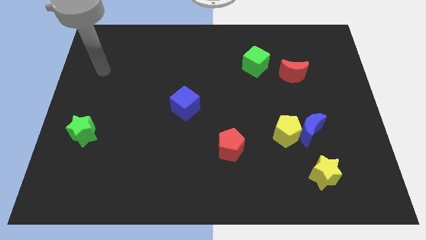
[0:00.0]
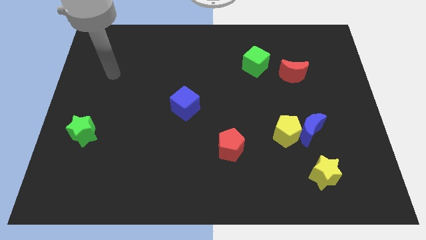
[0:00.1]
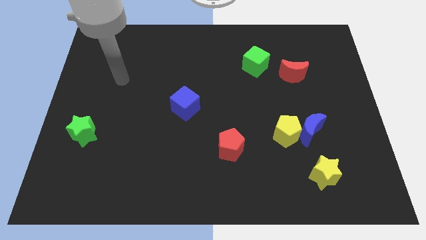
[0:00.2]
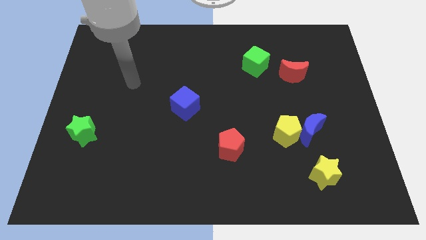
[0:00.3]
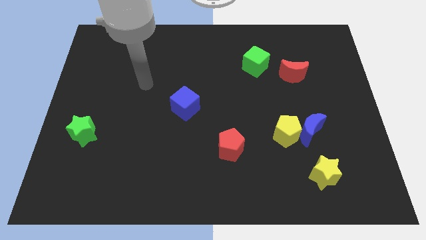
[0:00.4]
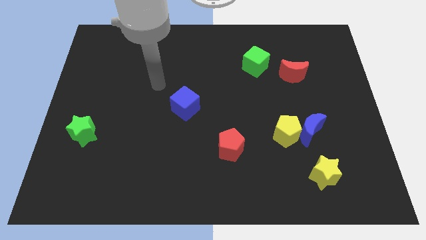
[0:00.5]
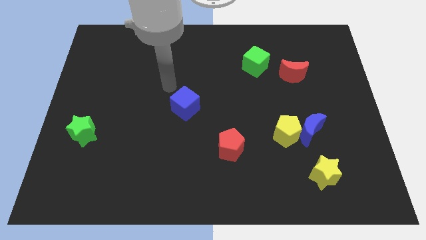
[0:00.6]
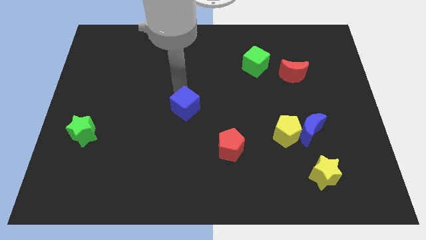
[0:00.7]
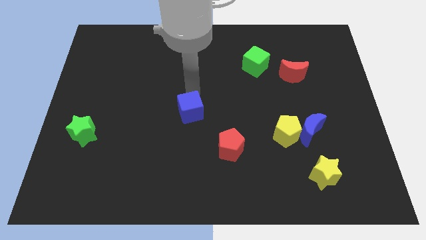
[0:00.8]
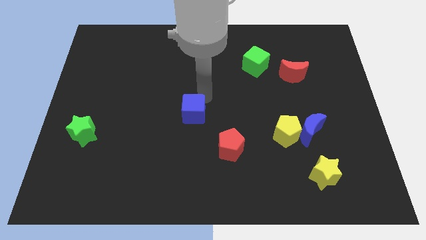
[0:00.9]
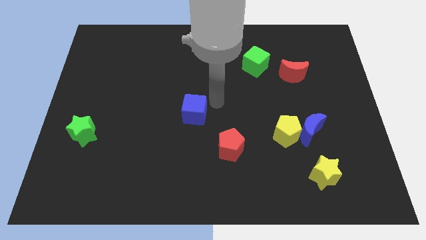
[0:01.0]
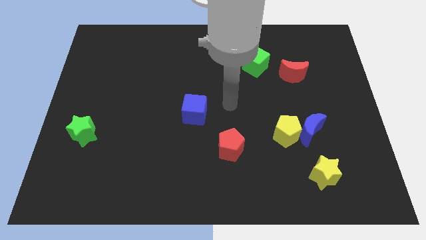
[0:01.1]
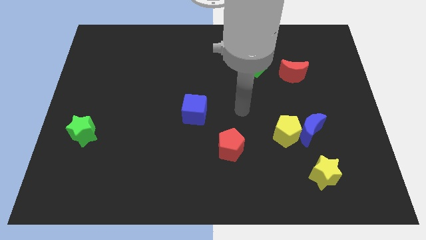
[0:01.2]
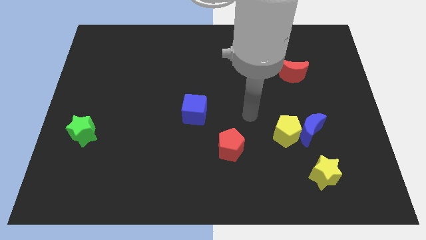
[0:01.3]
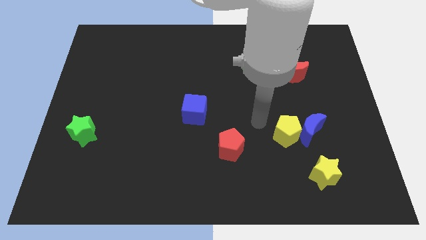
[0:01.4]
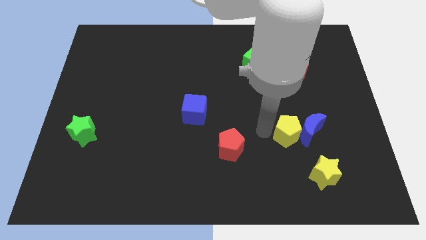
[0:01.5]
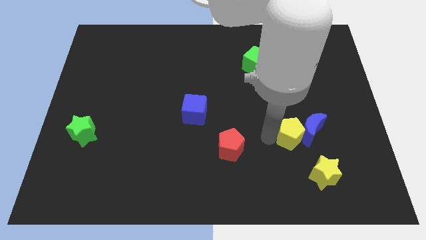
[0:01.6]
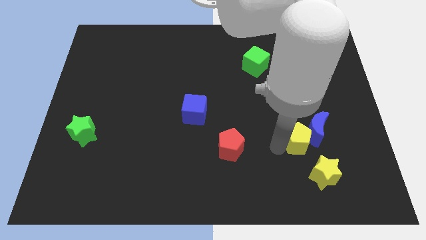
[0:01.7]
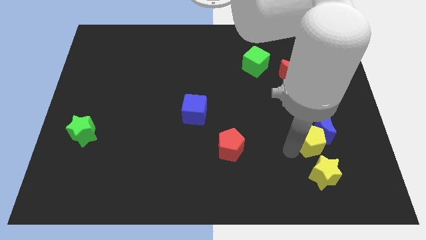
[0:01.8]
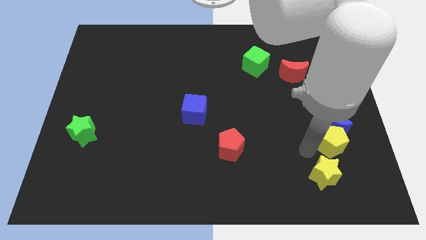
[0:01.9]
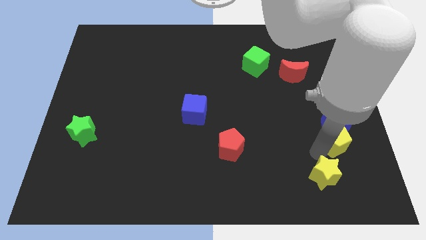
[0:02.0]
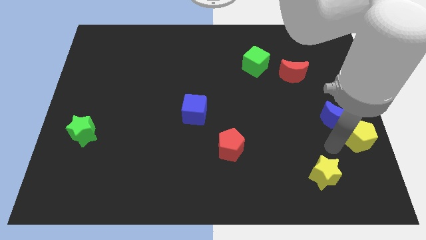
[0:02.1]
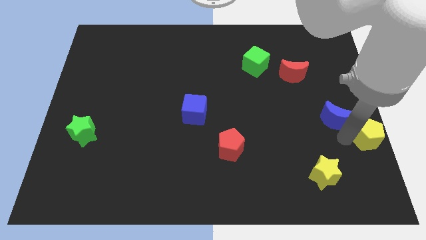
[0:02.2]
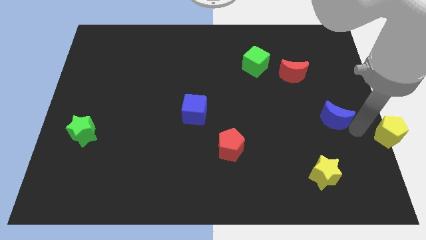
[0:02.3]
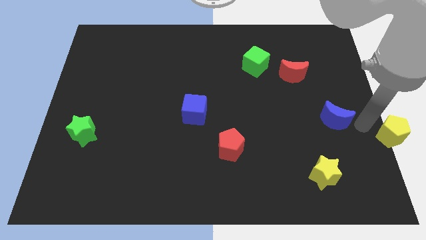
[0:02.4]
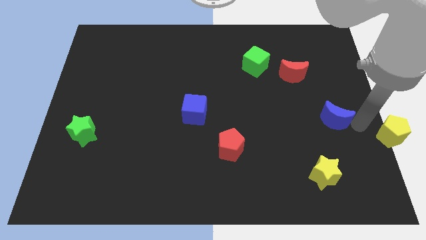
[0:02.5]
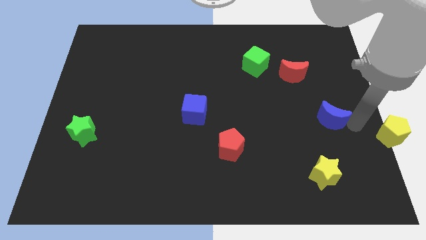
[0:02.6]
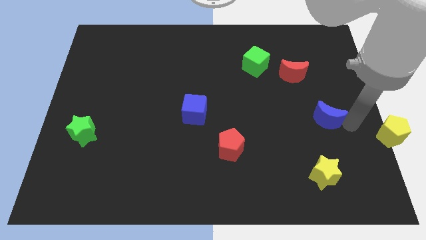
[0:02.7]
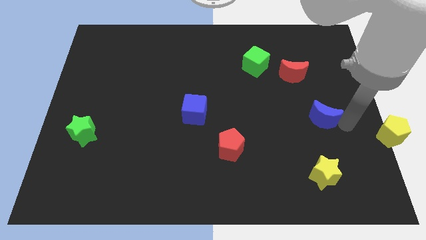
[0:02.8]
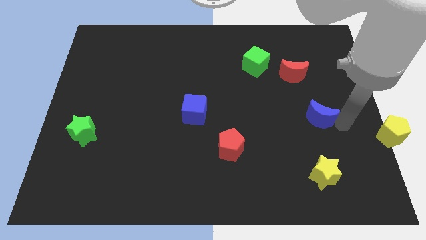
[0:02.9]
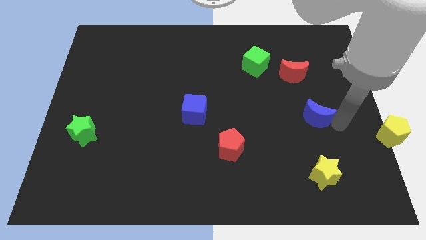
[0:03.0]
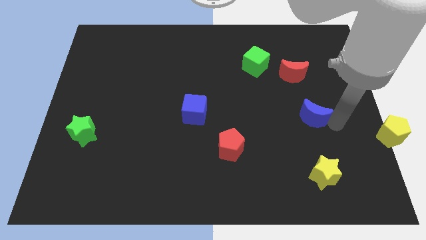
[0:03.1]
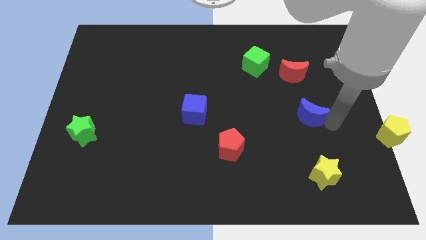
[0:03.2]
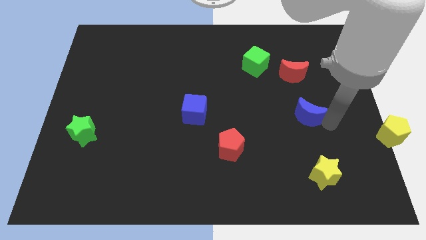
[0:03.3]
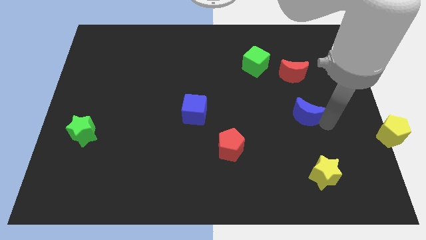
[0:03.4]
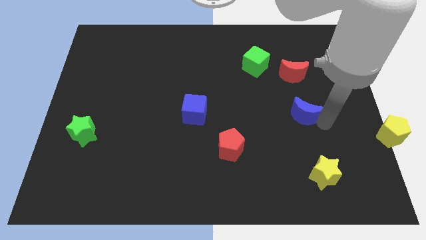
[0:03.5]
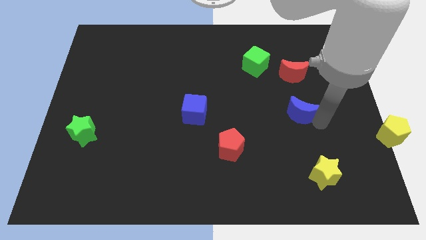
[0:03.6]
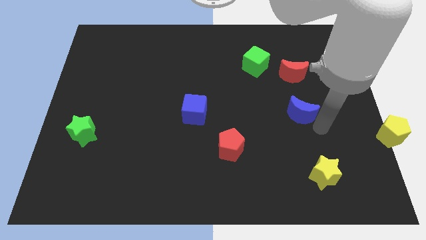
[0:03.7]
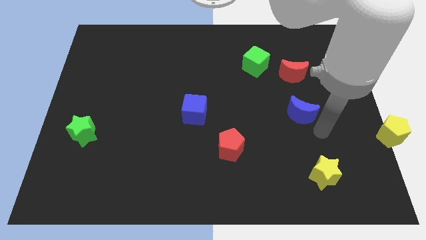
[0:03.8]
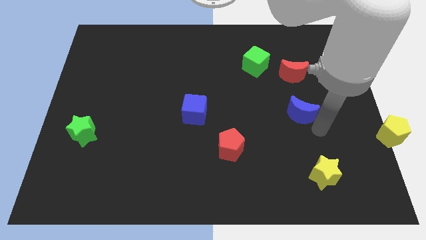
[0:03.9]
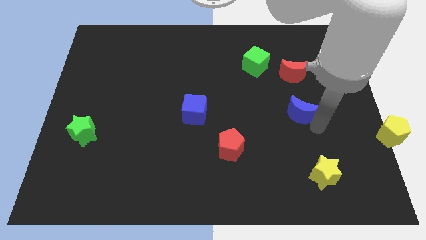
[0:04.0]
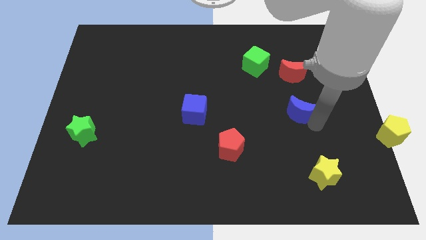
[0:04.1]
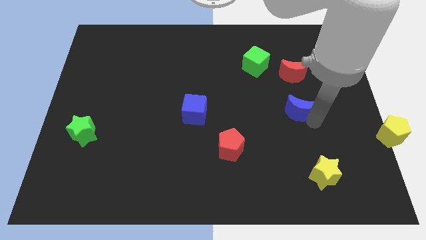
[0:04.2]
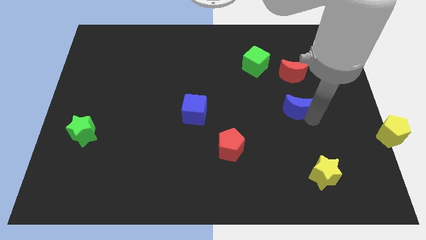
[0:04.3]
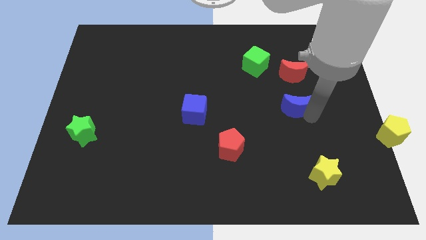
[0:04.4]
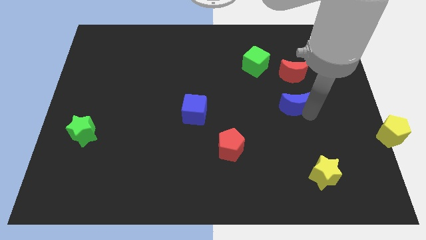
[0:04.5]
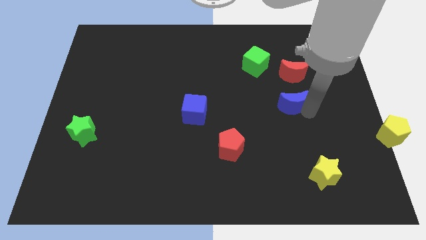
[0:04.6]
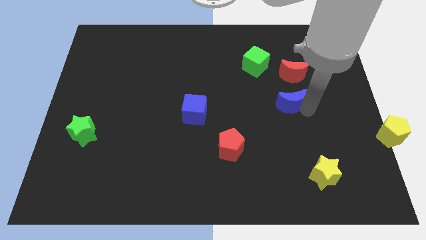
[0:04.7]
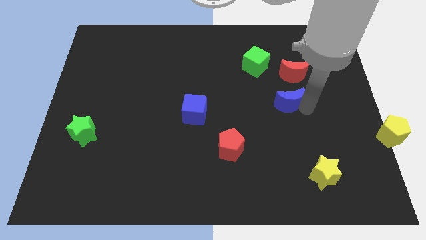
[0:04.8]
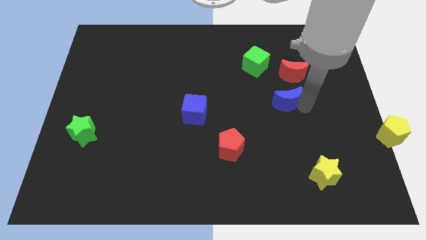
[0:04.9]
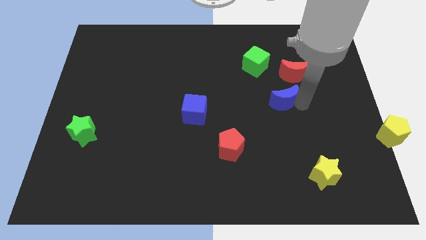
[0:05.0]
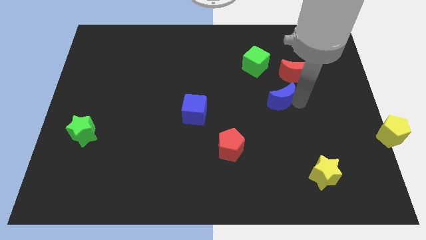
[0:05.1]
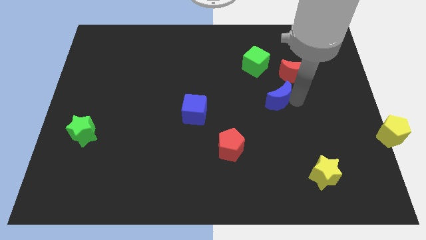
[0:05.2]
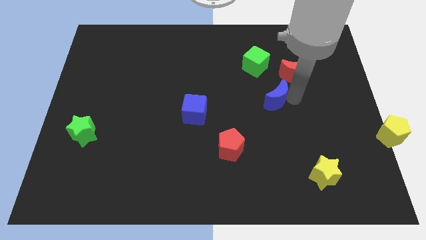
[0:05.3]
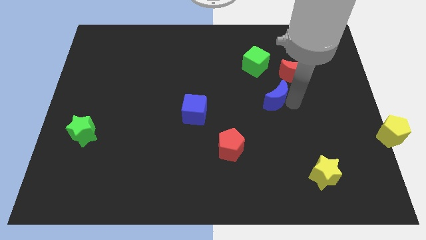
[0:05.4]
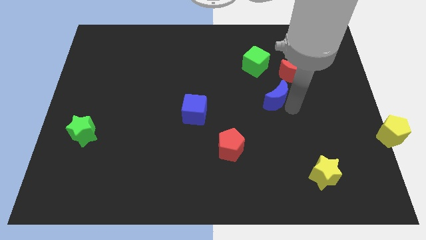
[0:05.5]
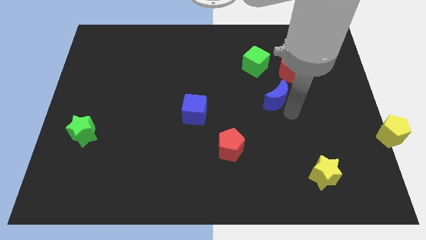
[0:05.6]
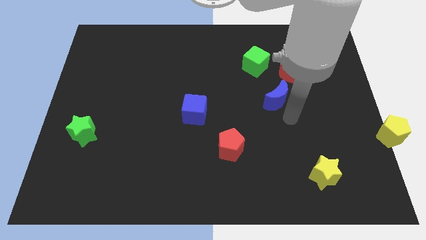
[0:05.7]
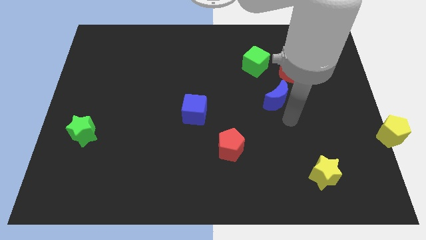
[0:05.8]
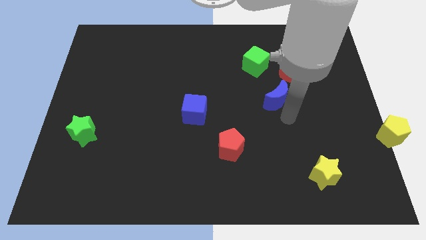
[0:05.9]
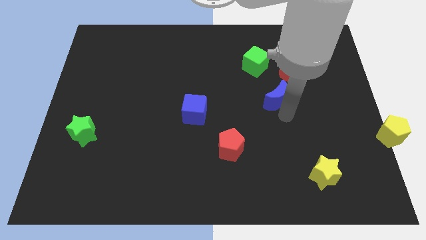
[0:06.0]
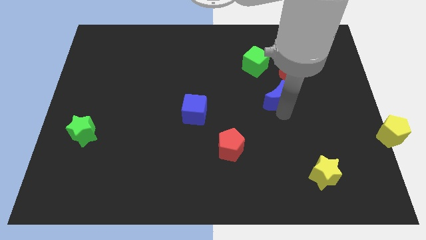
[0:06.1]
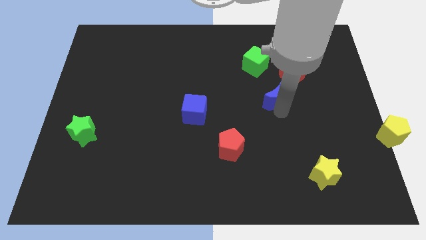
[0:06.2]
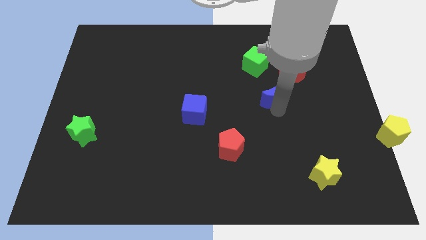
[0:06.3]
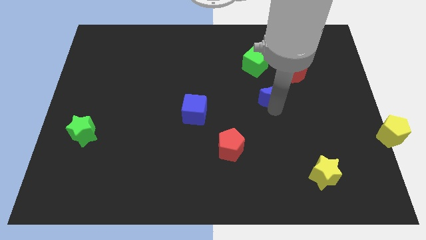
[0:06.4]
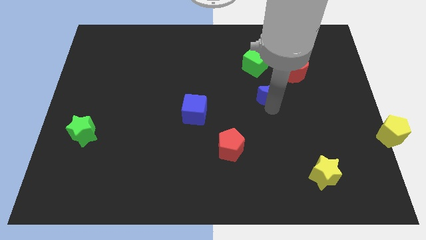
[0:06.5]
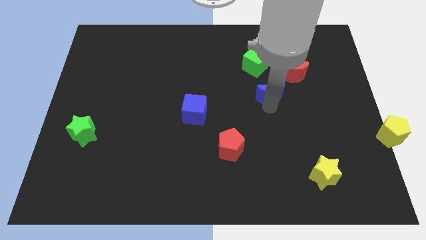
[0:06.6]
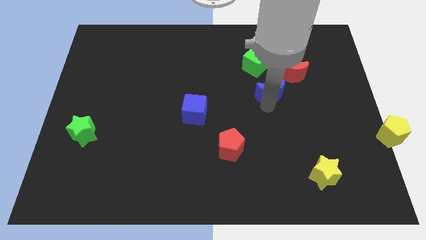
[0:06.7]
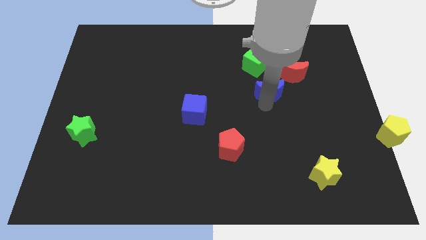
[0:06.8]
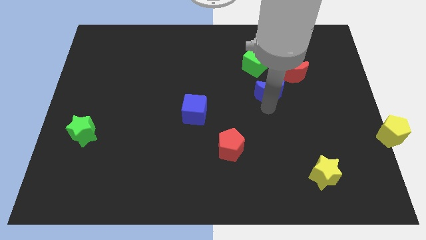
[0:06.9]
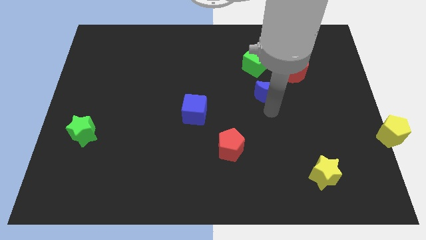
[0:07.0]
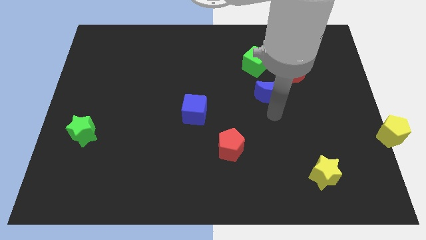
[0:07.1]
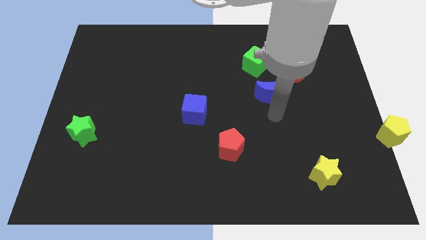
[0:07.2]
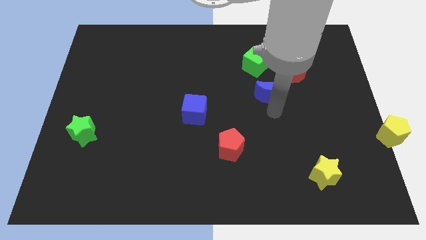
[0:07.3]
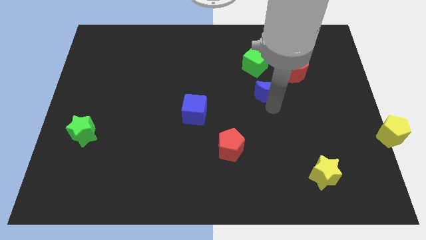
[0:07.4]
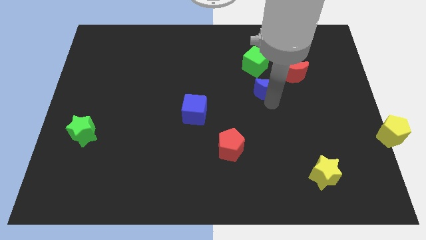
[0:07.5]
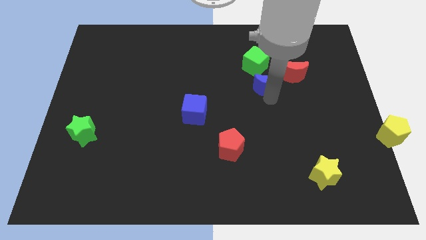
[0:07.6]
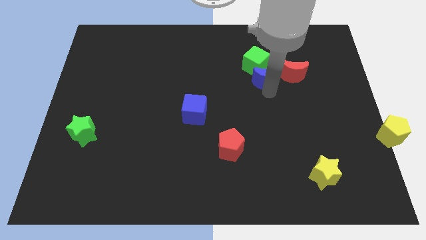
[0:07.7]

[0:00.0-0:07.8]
slide the blue moon close to the green cube
